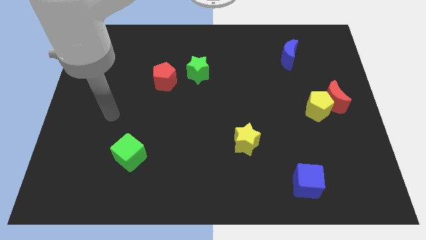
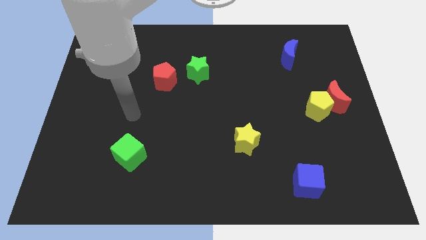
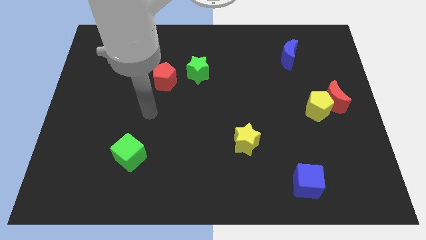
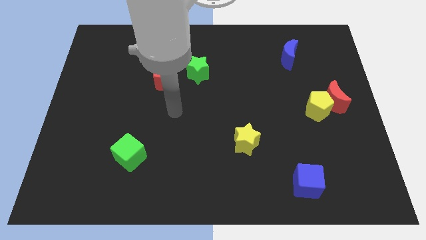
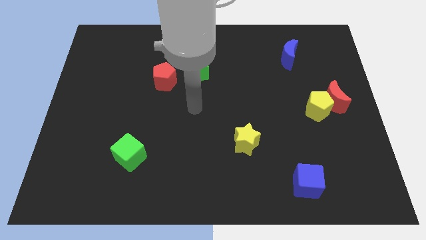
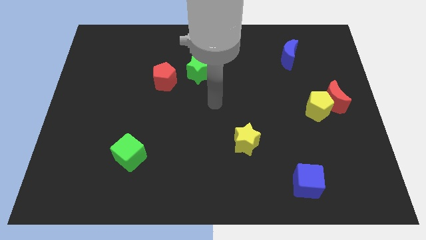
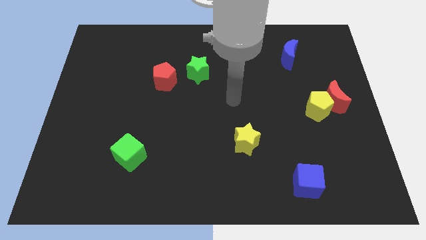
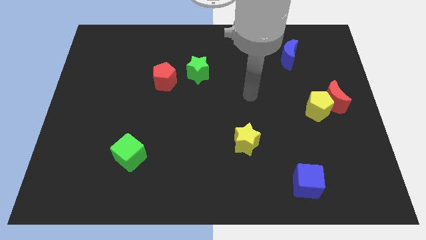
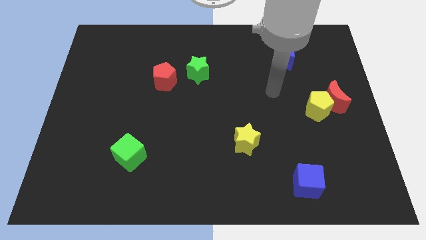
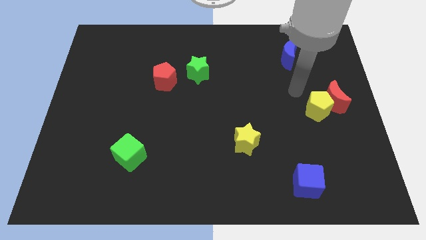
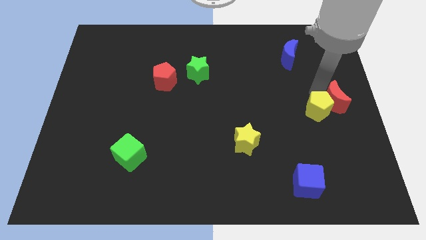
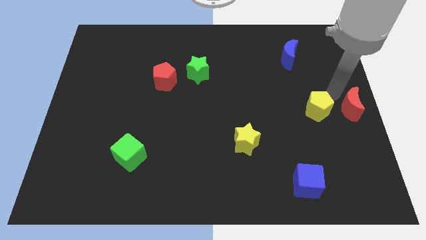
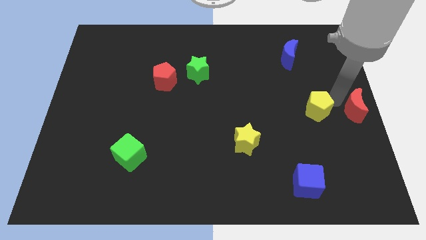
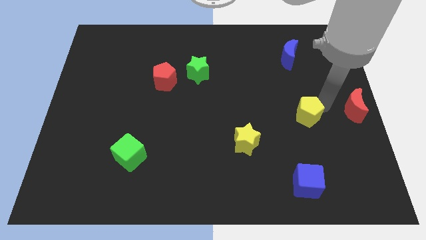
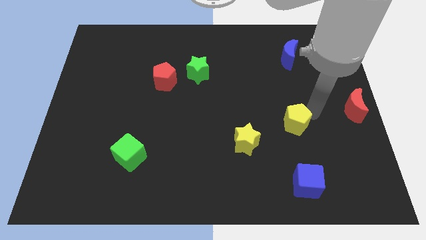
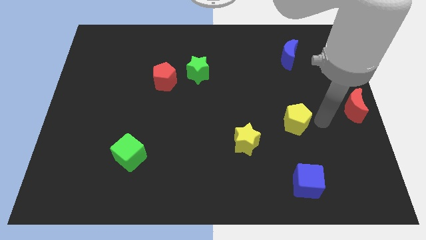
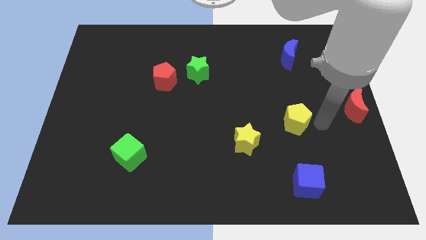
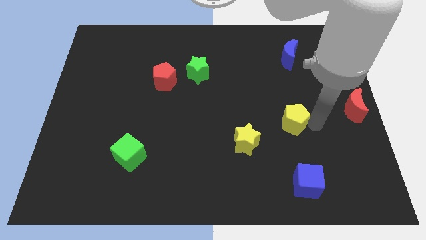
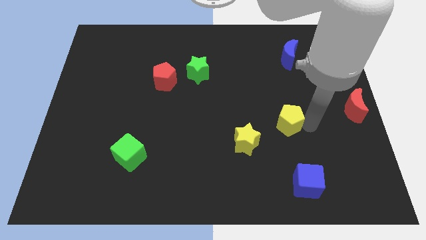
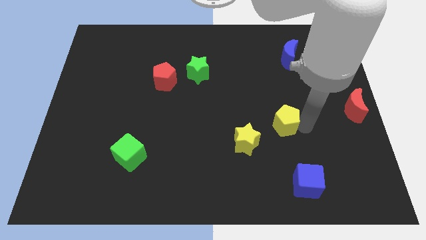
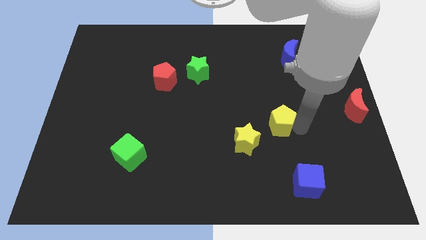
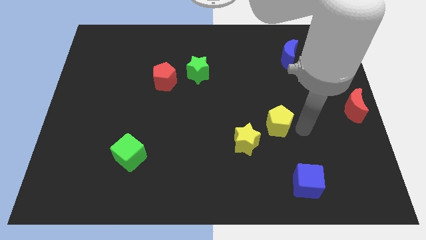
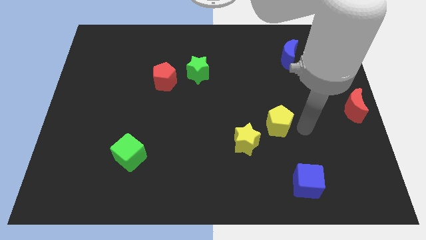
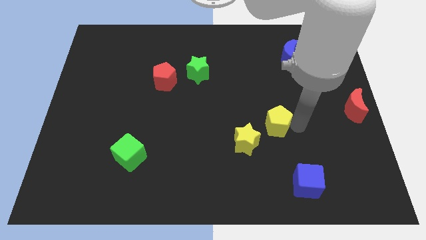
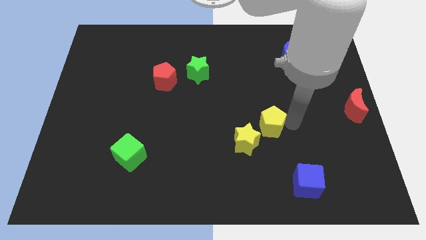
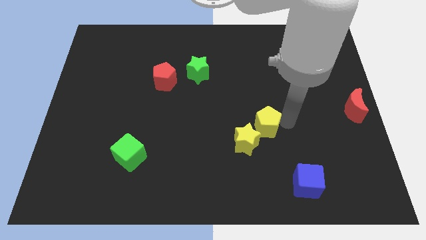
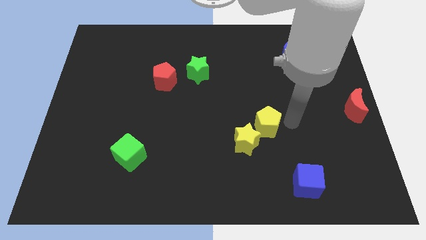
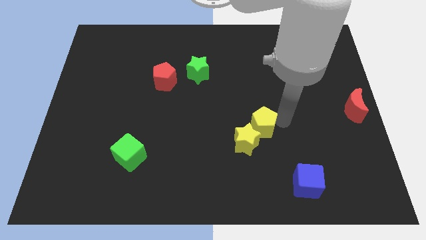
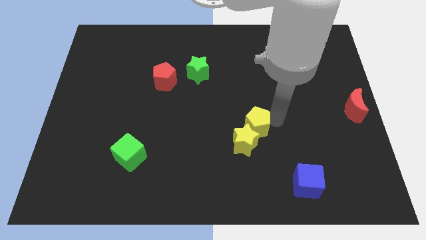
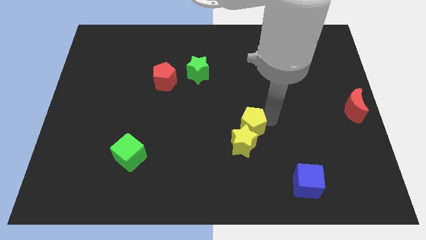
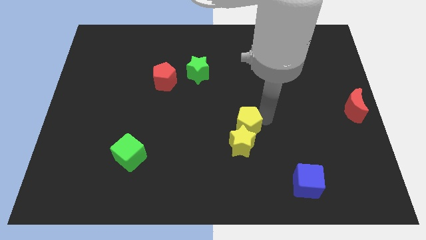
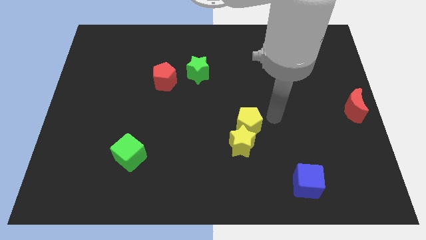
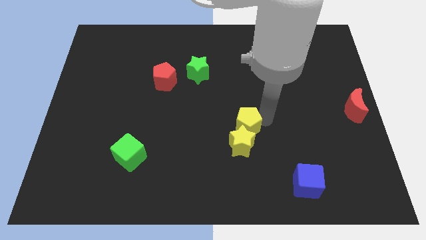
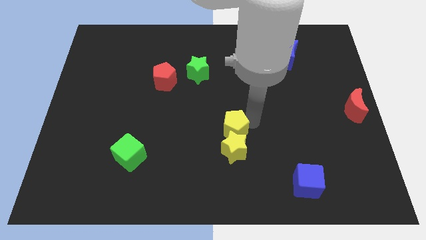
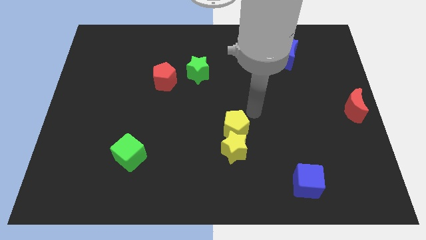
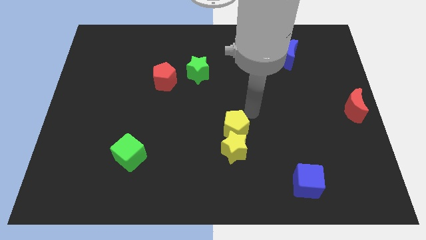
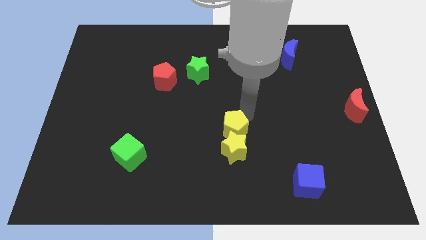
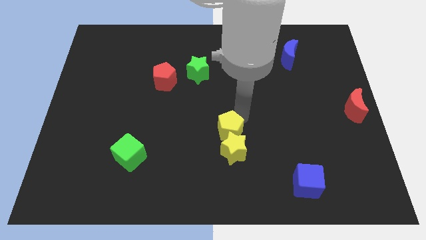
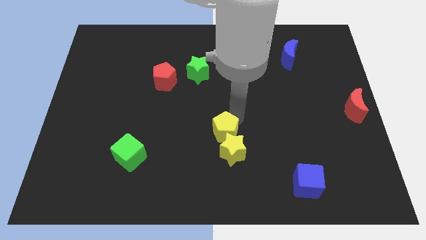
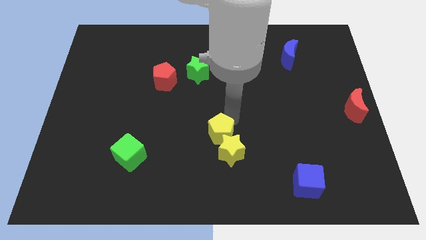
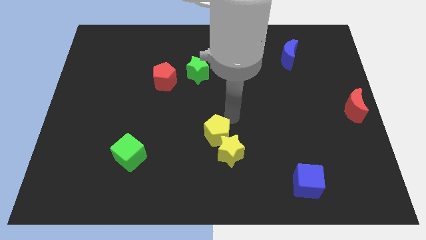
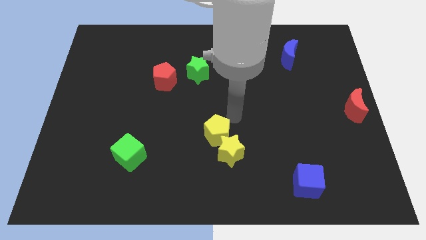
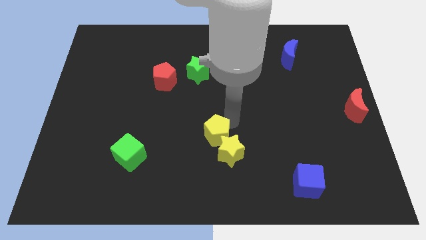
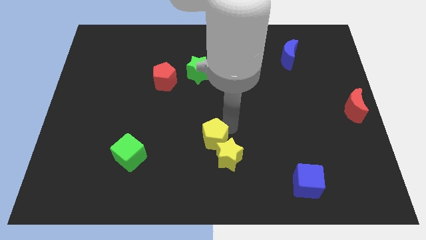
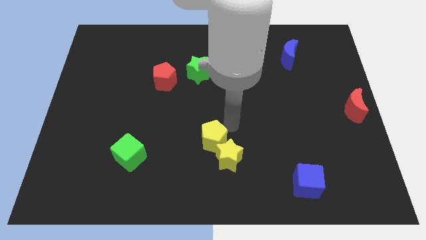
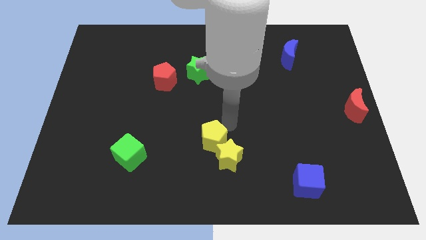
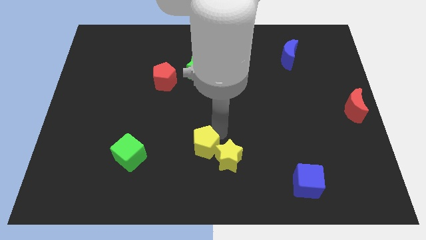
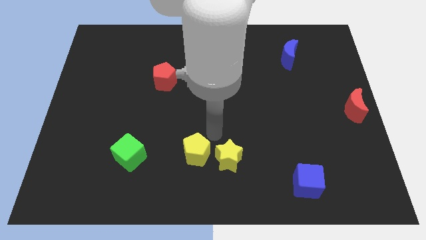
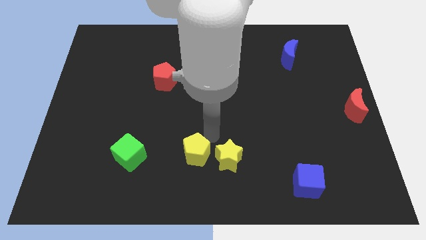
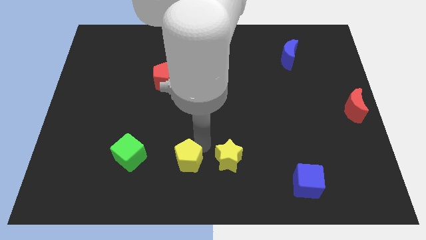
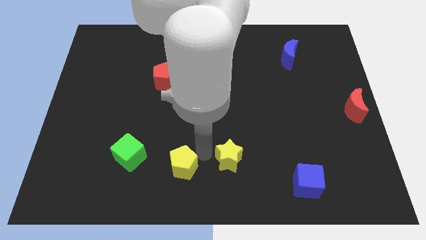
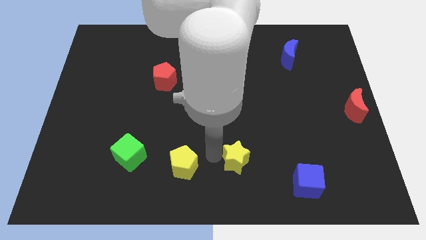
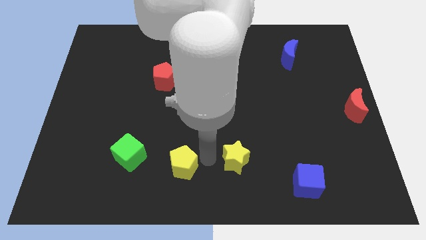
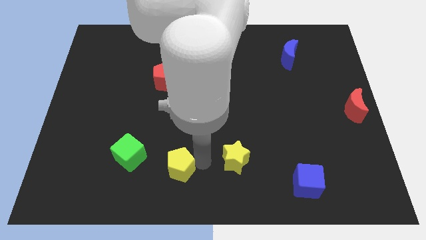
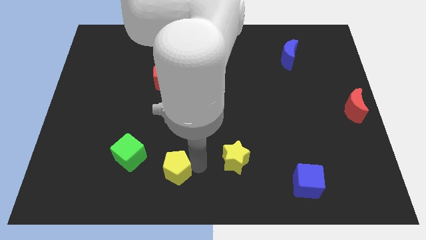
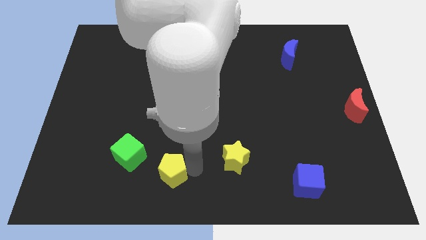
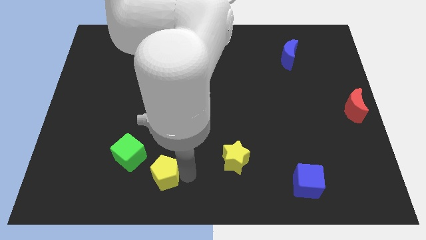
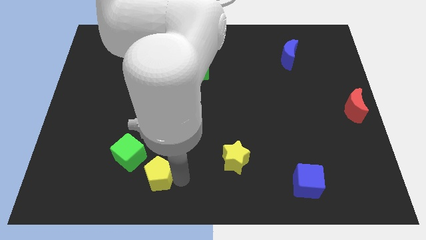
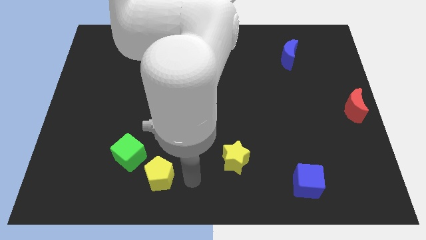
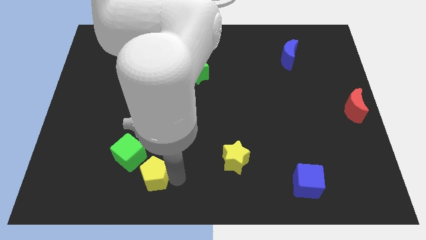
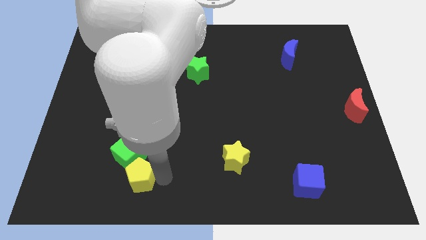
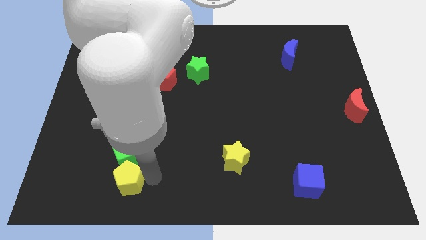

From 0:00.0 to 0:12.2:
push the yellow pentagon to the bottom left side of the green cube
